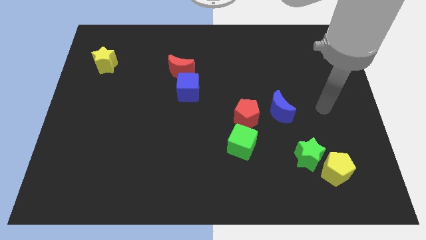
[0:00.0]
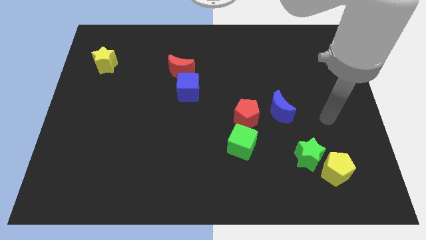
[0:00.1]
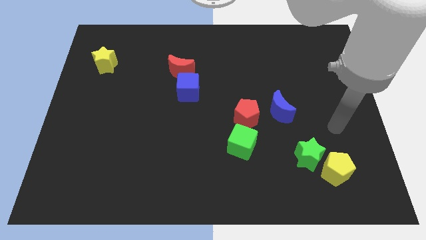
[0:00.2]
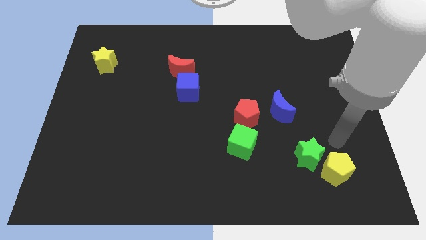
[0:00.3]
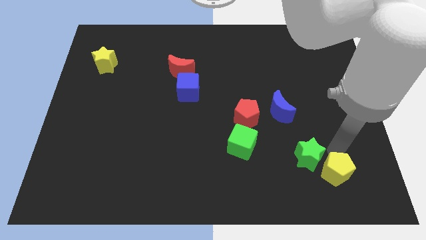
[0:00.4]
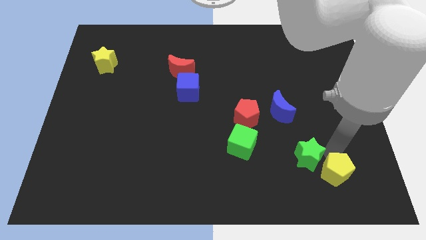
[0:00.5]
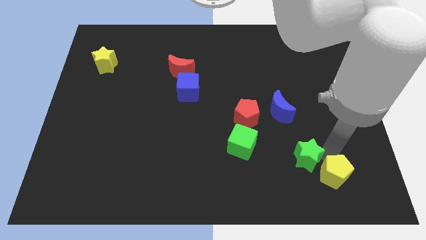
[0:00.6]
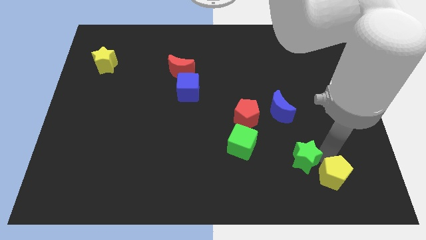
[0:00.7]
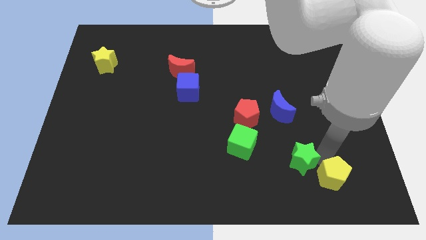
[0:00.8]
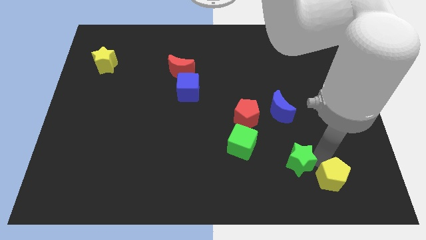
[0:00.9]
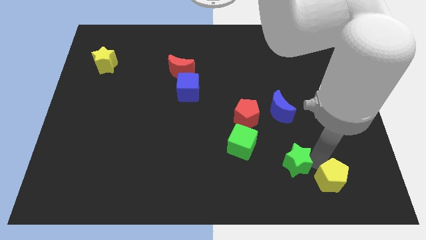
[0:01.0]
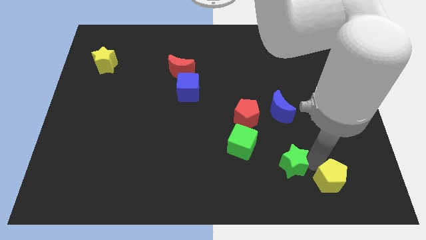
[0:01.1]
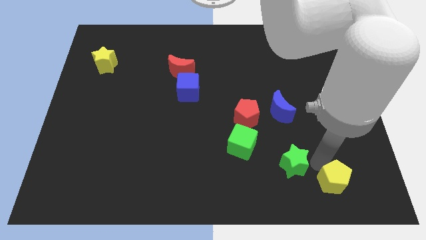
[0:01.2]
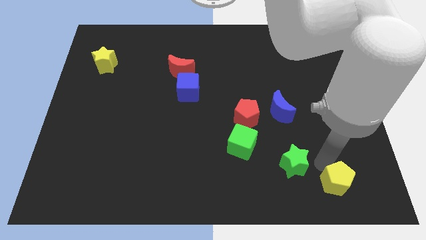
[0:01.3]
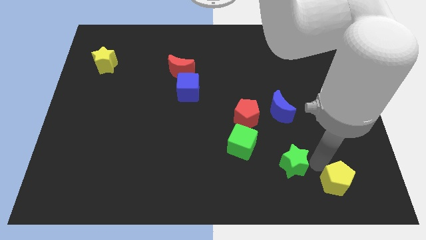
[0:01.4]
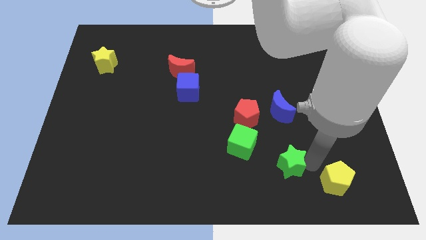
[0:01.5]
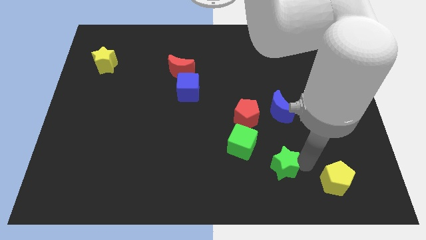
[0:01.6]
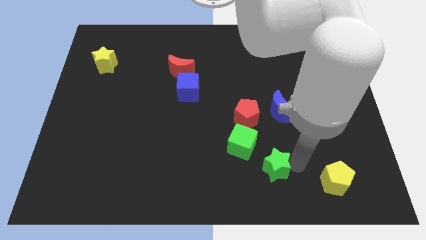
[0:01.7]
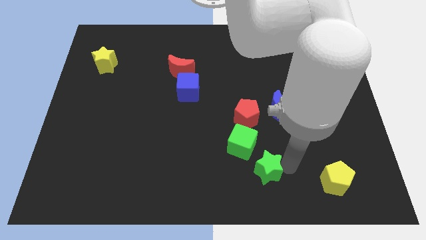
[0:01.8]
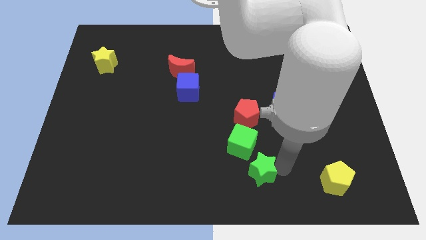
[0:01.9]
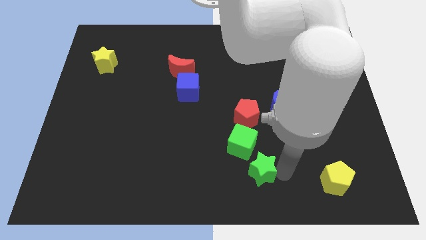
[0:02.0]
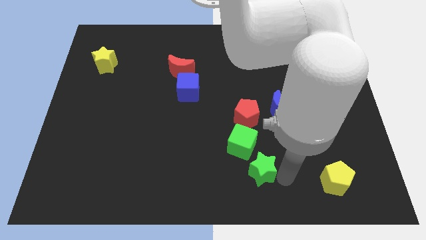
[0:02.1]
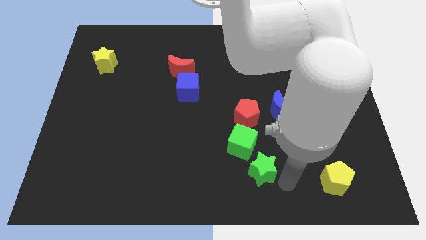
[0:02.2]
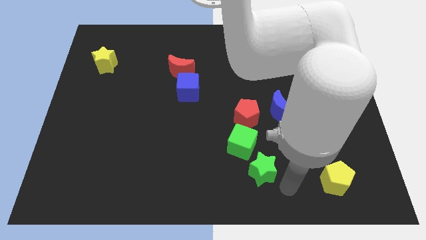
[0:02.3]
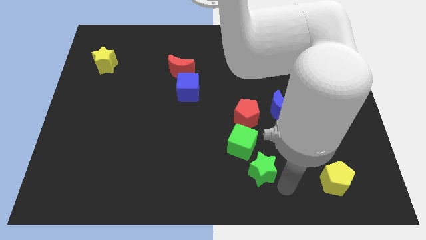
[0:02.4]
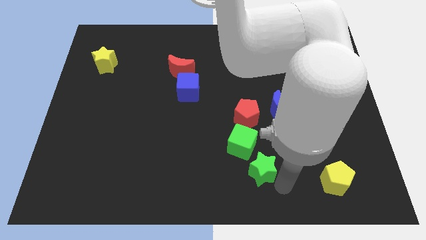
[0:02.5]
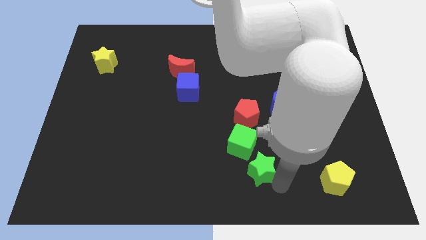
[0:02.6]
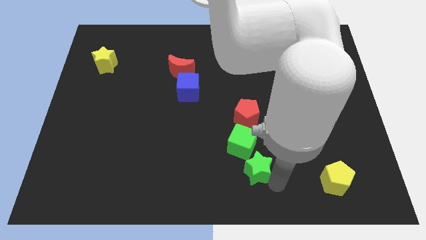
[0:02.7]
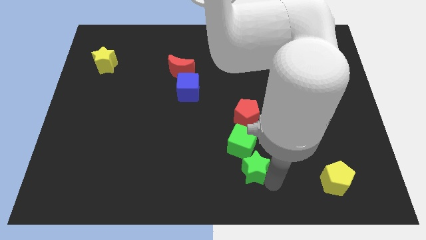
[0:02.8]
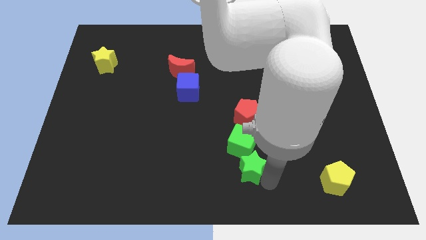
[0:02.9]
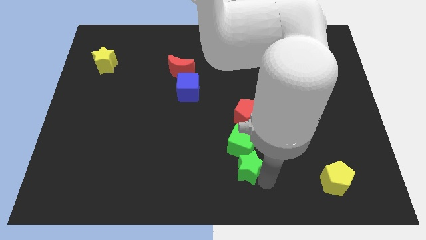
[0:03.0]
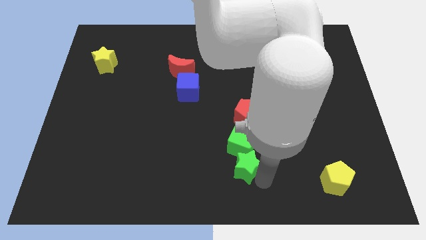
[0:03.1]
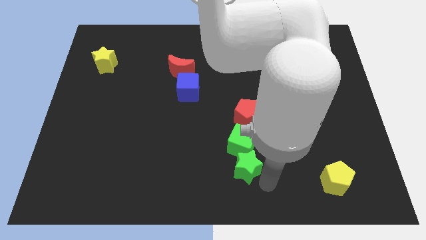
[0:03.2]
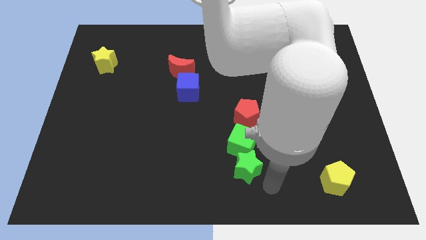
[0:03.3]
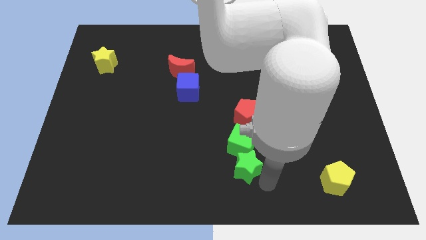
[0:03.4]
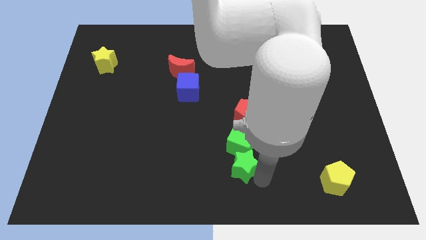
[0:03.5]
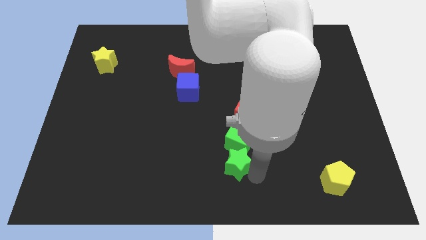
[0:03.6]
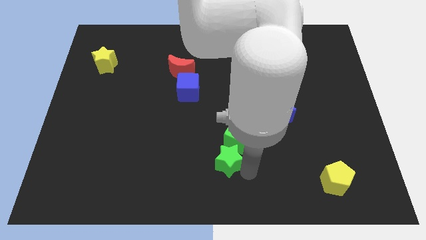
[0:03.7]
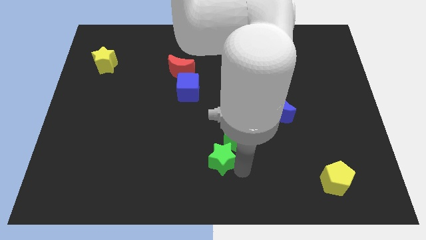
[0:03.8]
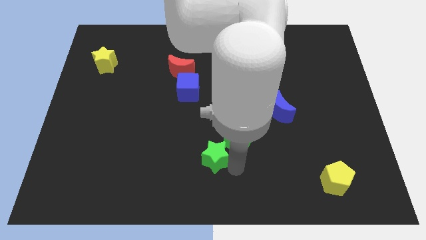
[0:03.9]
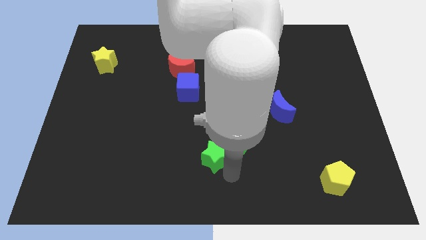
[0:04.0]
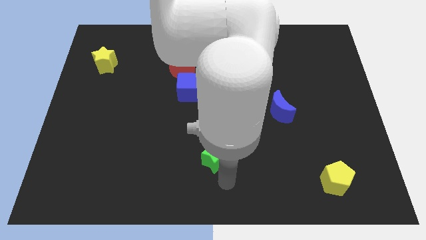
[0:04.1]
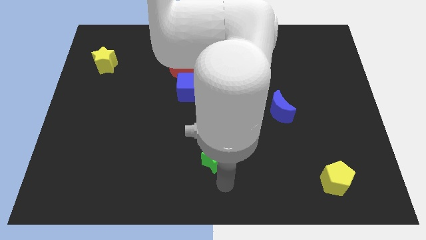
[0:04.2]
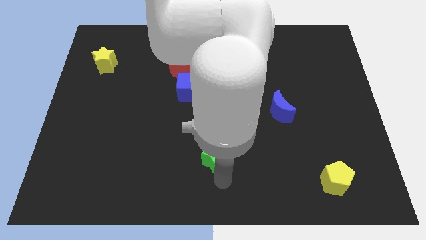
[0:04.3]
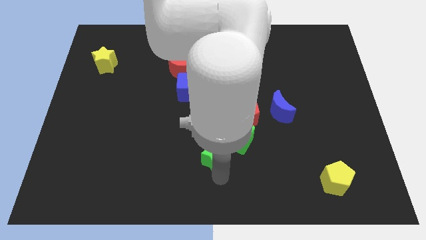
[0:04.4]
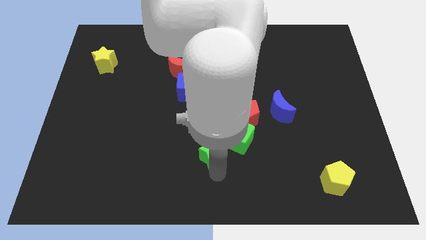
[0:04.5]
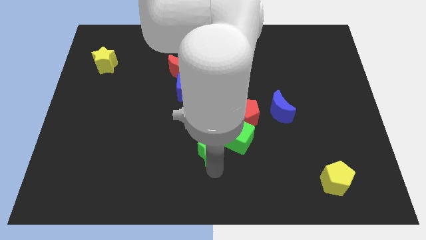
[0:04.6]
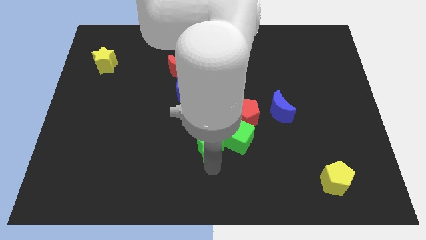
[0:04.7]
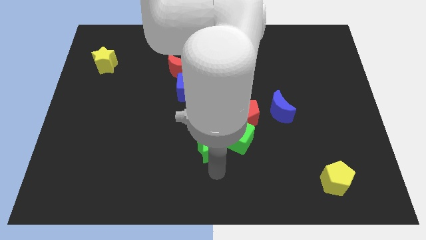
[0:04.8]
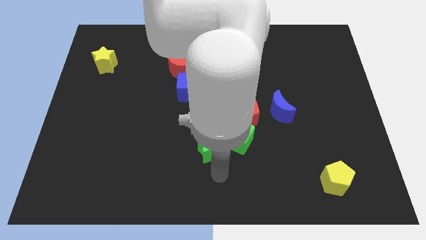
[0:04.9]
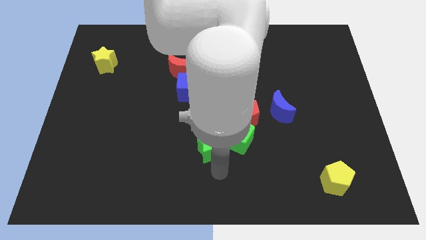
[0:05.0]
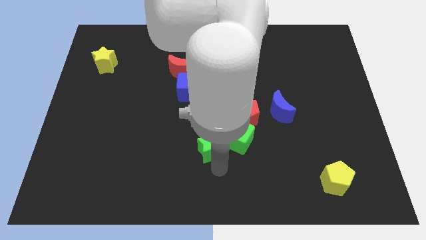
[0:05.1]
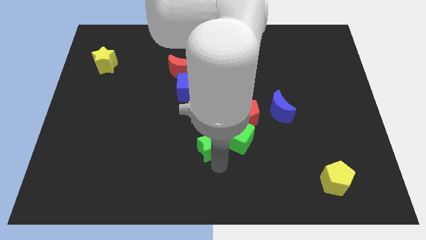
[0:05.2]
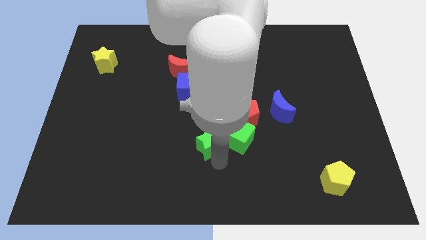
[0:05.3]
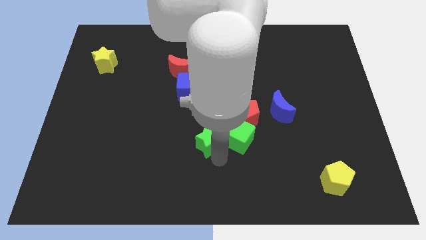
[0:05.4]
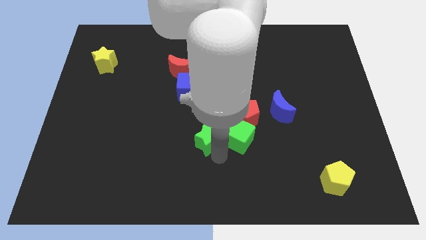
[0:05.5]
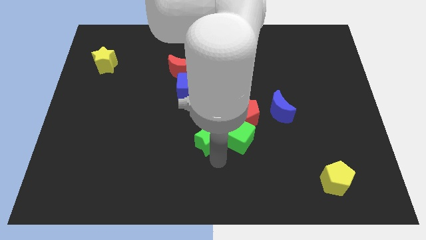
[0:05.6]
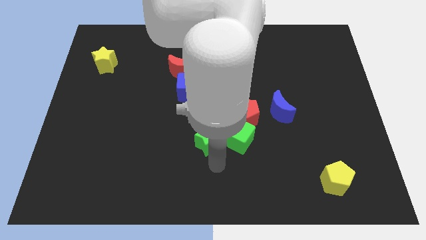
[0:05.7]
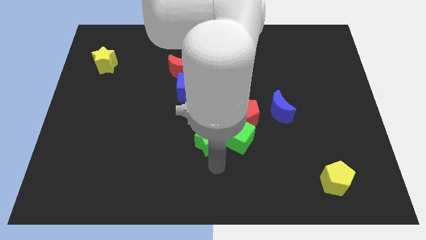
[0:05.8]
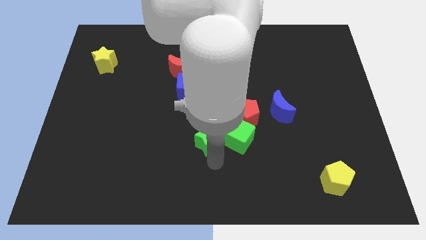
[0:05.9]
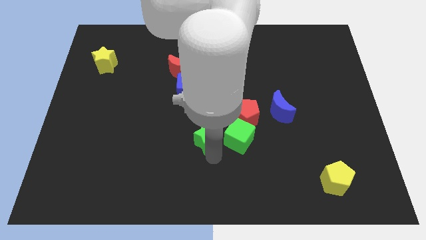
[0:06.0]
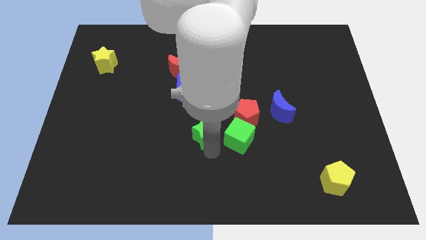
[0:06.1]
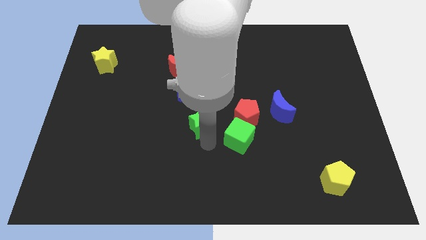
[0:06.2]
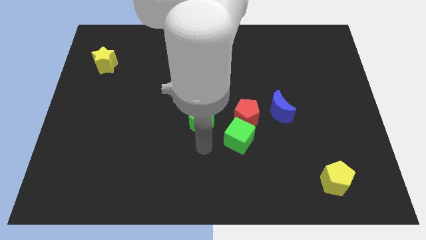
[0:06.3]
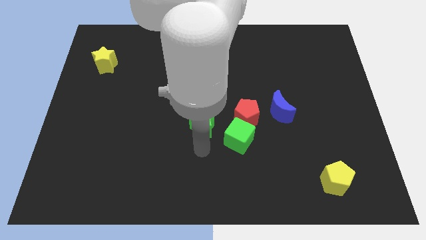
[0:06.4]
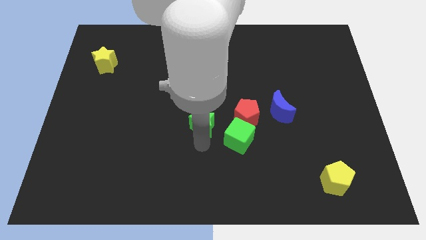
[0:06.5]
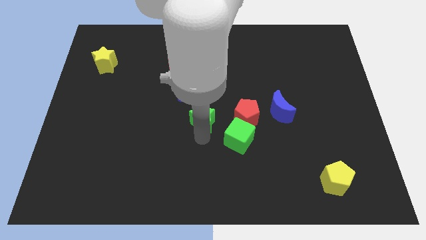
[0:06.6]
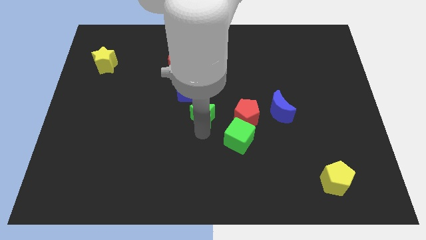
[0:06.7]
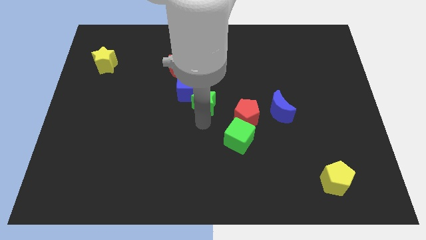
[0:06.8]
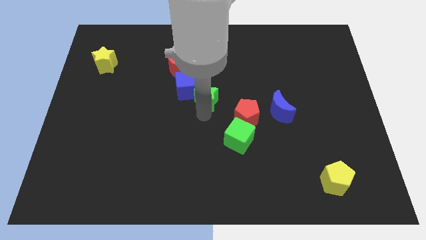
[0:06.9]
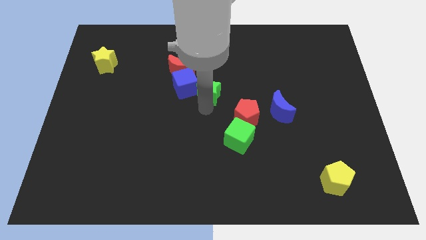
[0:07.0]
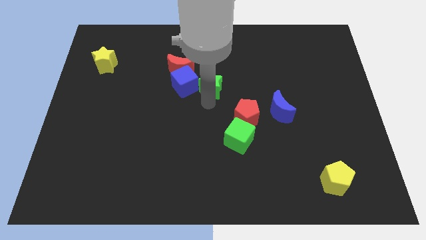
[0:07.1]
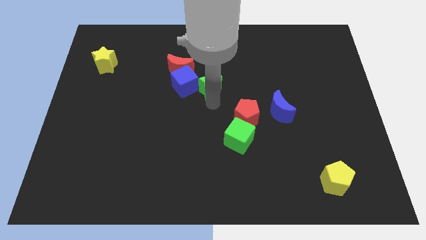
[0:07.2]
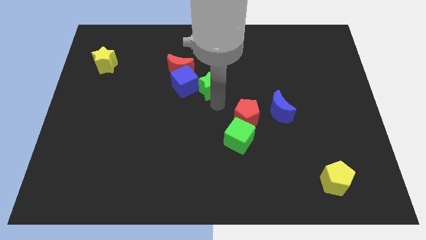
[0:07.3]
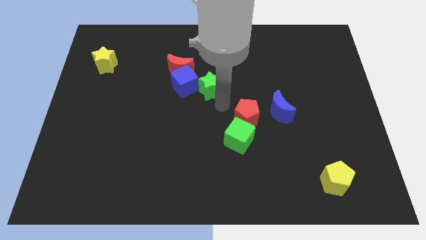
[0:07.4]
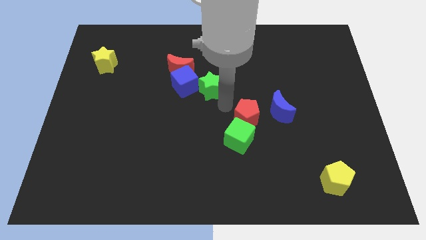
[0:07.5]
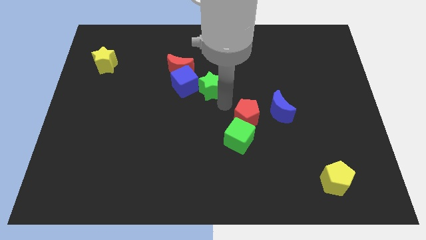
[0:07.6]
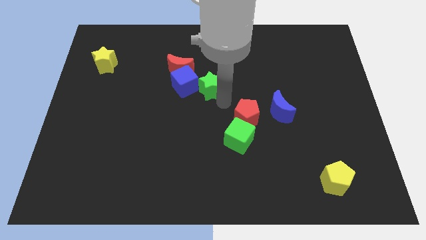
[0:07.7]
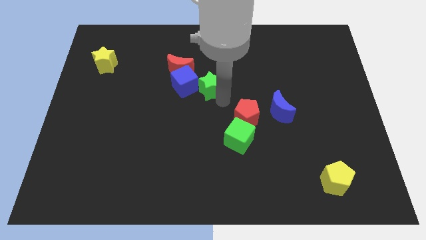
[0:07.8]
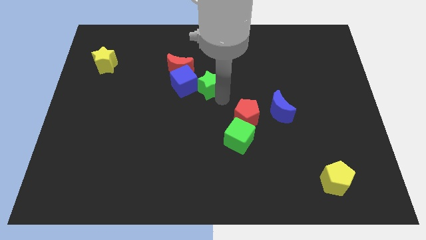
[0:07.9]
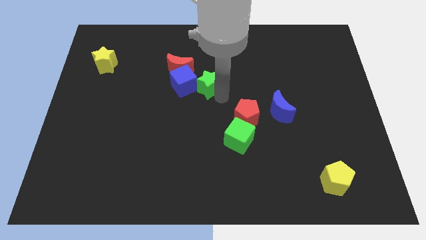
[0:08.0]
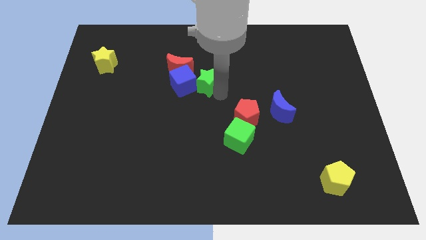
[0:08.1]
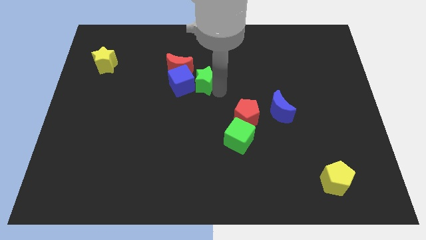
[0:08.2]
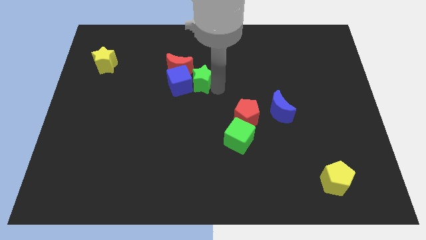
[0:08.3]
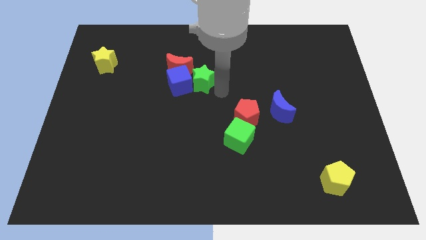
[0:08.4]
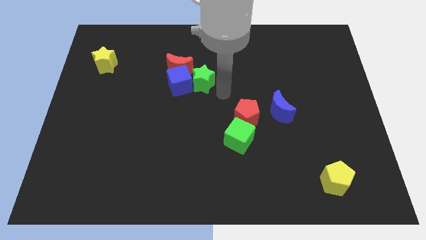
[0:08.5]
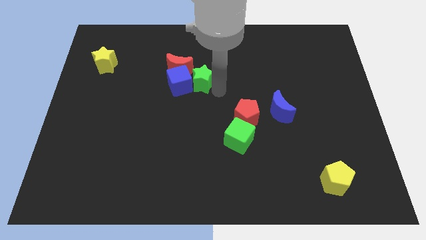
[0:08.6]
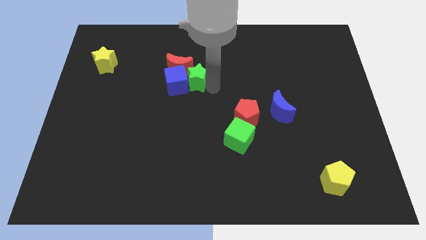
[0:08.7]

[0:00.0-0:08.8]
move the green star to the red moon
